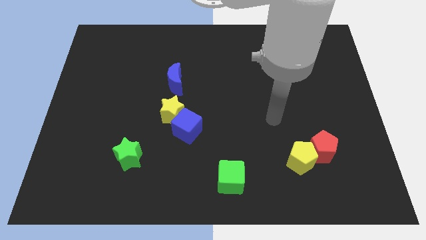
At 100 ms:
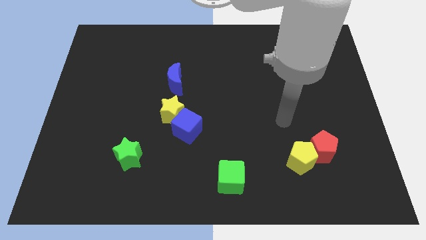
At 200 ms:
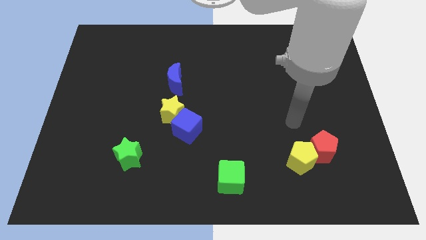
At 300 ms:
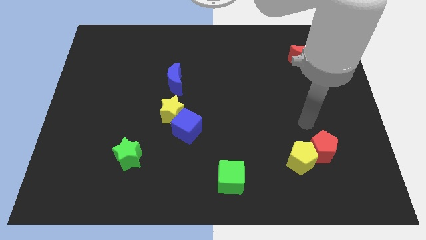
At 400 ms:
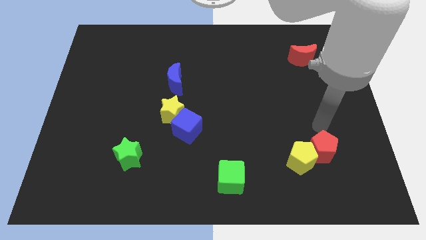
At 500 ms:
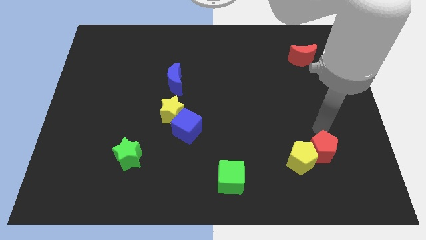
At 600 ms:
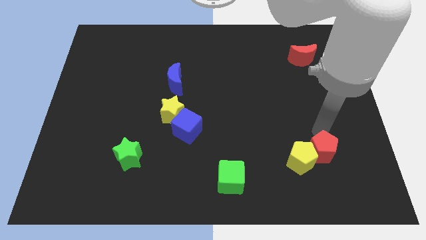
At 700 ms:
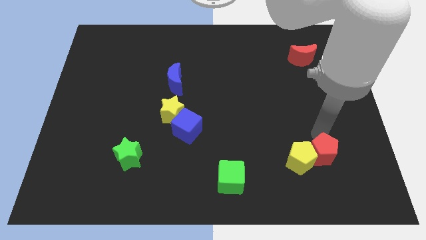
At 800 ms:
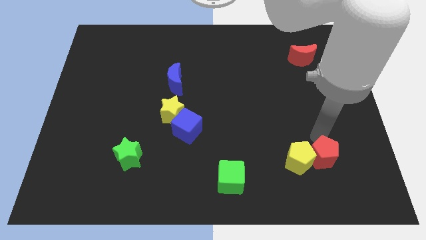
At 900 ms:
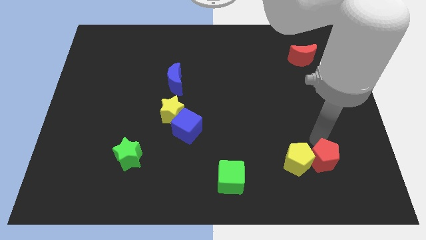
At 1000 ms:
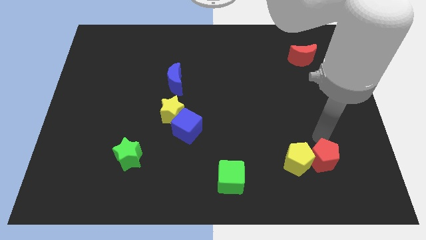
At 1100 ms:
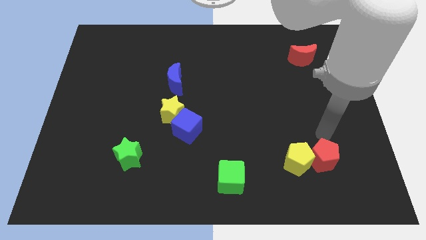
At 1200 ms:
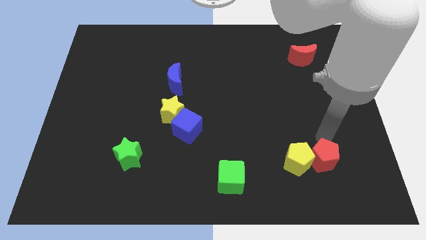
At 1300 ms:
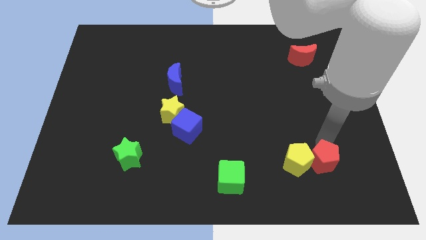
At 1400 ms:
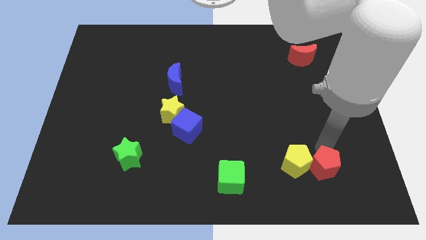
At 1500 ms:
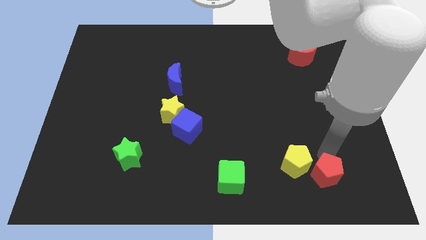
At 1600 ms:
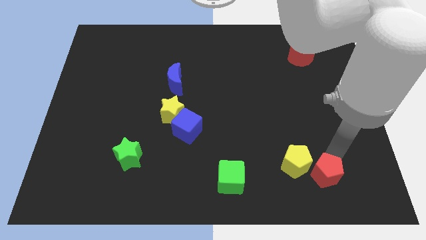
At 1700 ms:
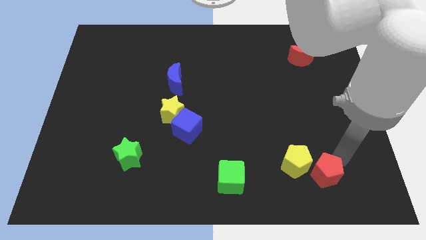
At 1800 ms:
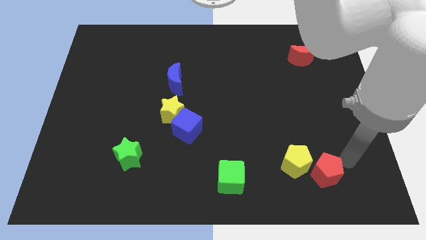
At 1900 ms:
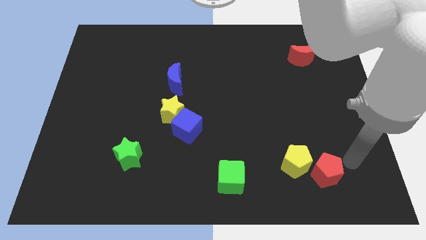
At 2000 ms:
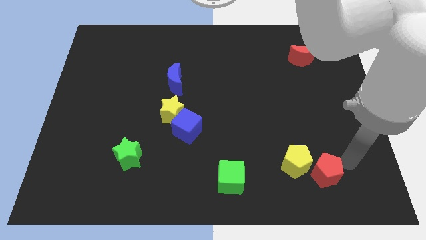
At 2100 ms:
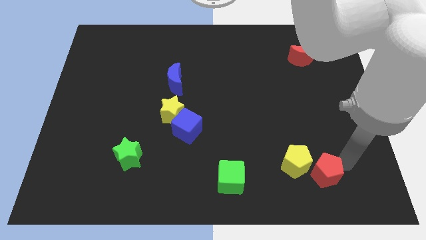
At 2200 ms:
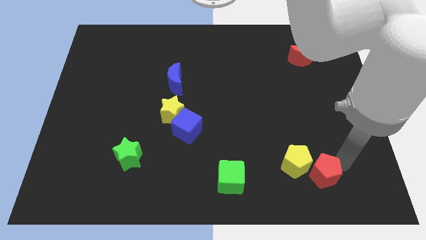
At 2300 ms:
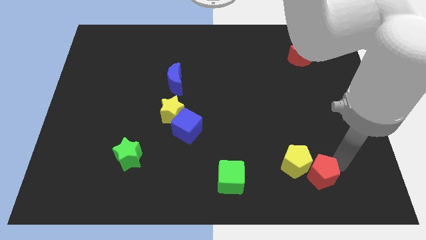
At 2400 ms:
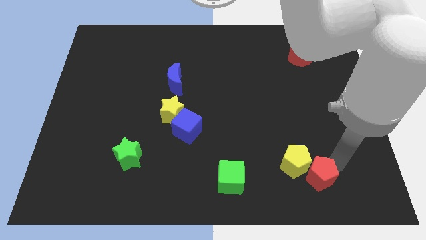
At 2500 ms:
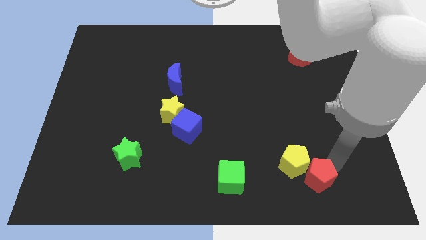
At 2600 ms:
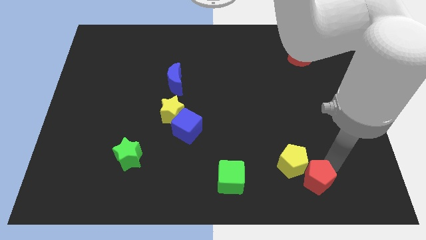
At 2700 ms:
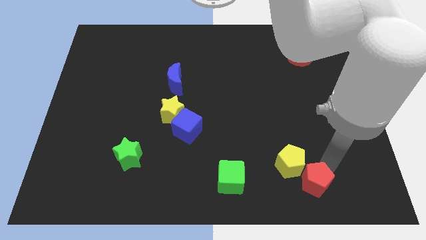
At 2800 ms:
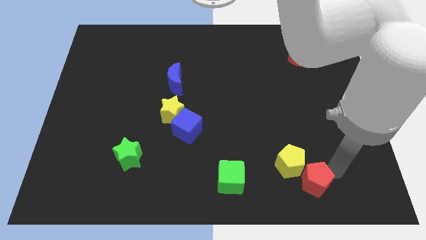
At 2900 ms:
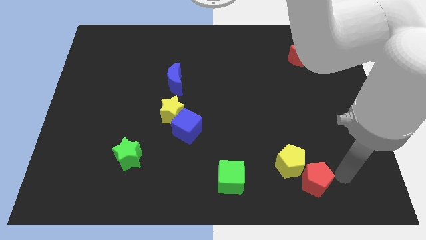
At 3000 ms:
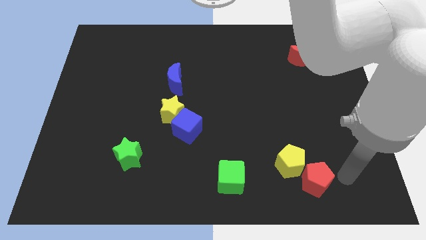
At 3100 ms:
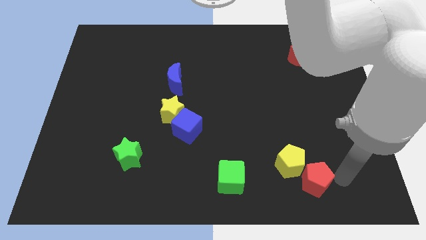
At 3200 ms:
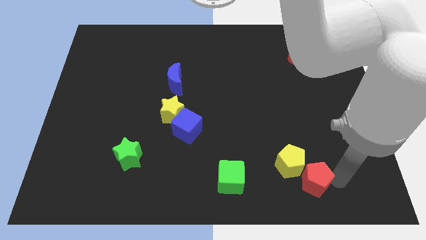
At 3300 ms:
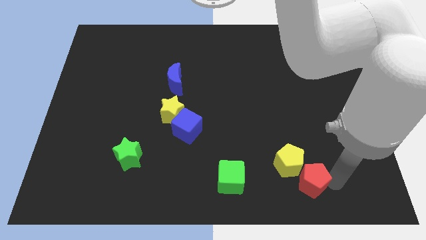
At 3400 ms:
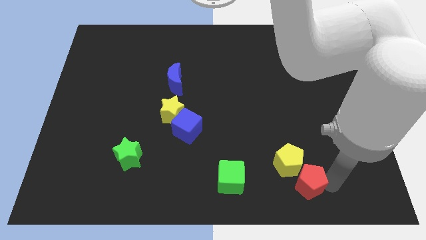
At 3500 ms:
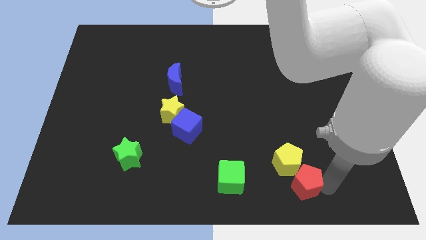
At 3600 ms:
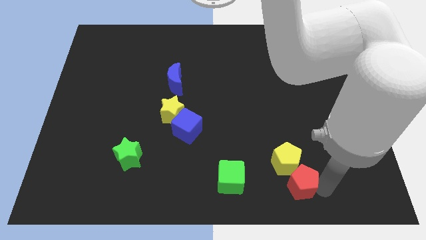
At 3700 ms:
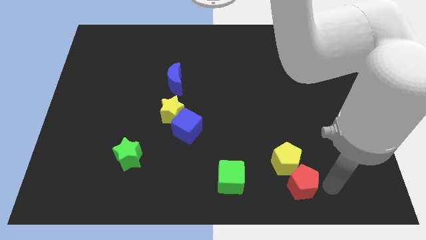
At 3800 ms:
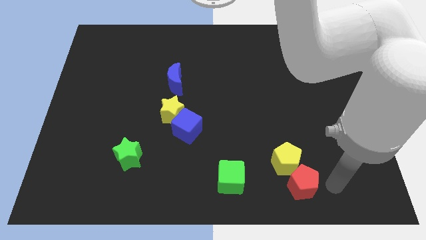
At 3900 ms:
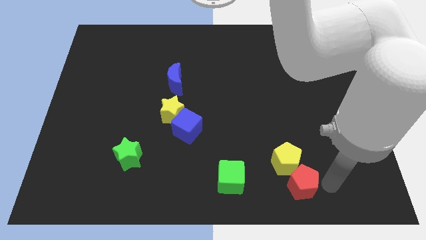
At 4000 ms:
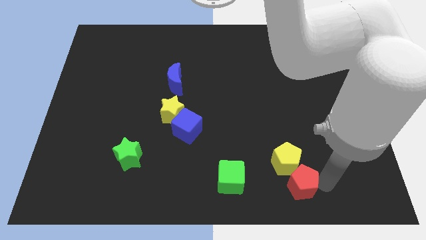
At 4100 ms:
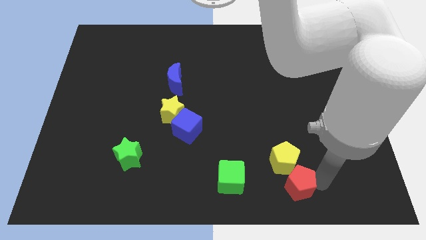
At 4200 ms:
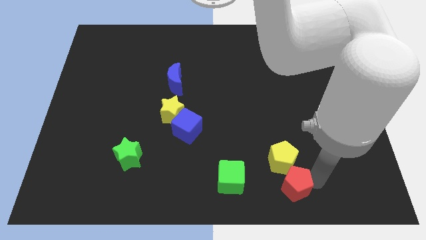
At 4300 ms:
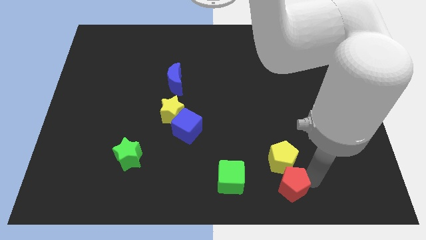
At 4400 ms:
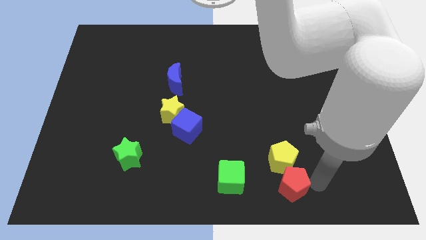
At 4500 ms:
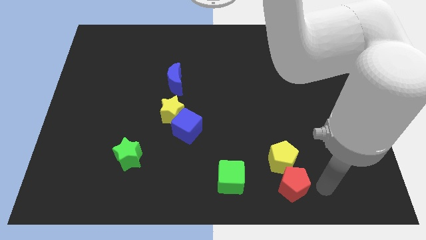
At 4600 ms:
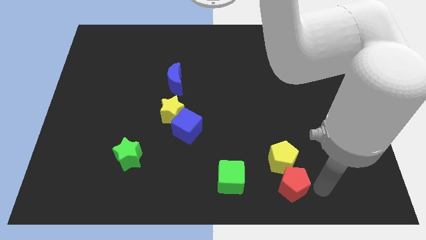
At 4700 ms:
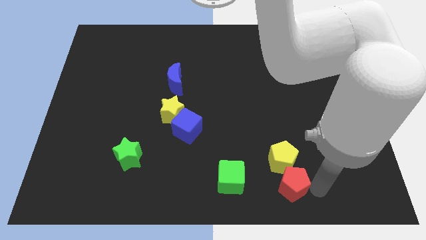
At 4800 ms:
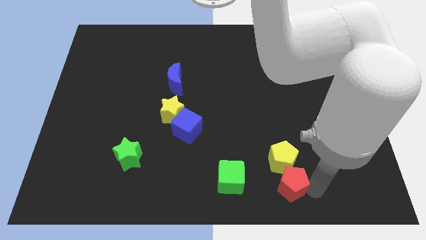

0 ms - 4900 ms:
slide the red pentagon diagonally down and to the left of the yellow pentagon

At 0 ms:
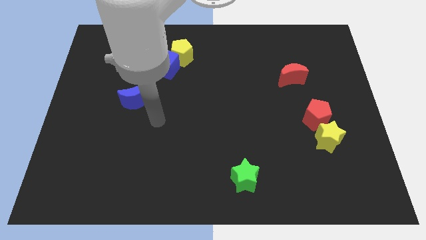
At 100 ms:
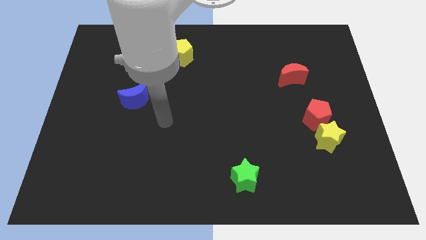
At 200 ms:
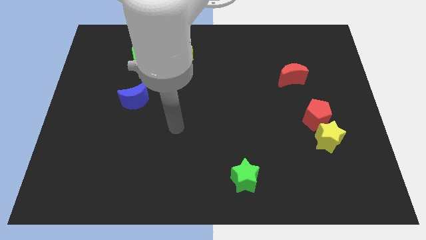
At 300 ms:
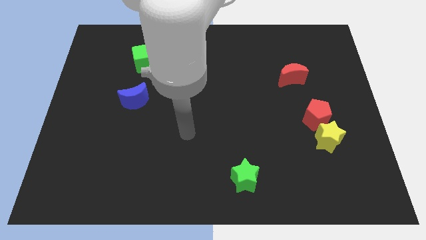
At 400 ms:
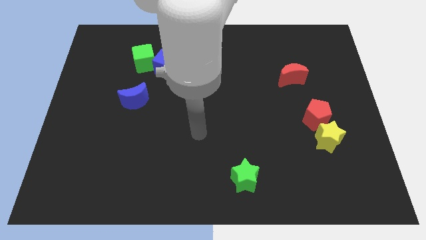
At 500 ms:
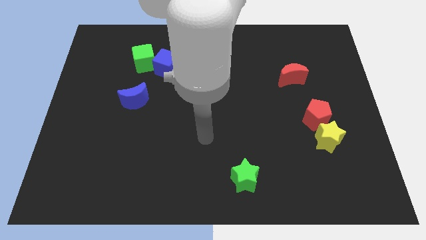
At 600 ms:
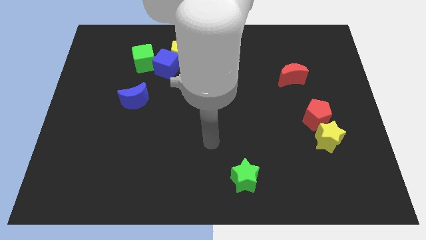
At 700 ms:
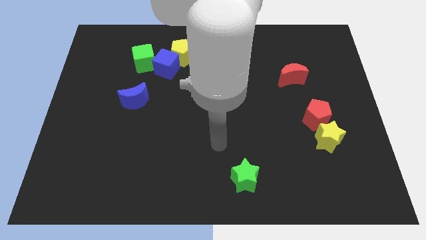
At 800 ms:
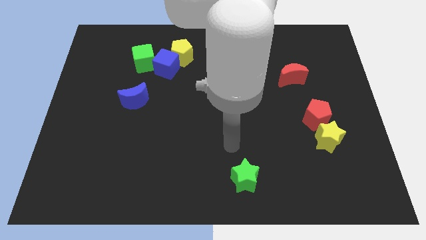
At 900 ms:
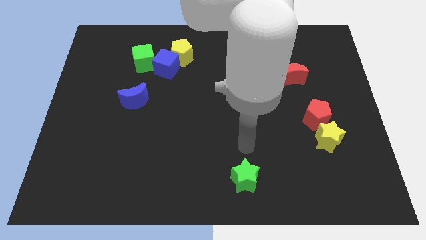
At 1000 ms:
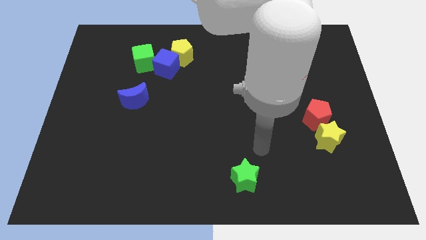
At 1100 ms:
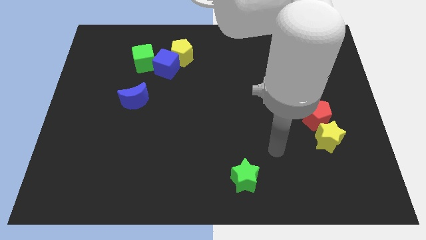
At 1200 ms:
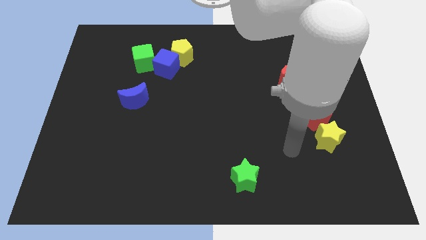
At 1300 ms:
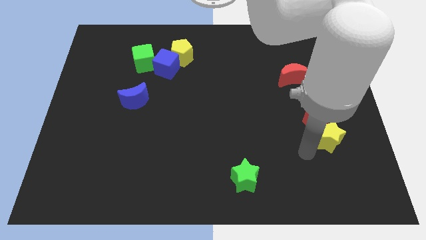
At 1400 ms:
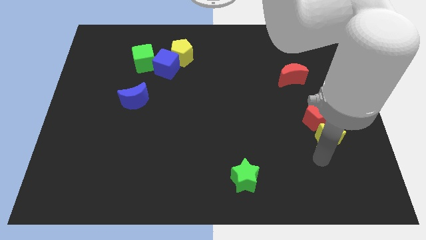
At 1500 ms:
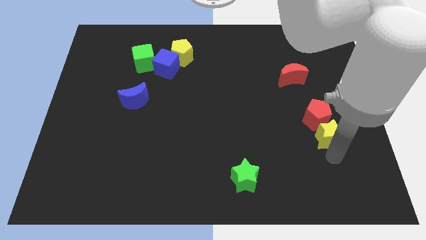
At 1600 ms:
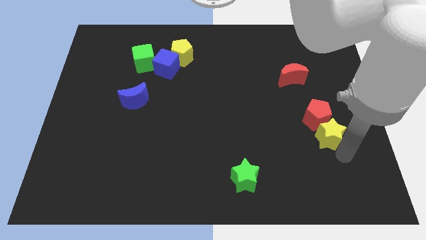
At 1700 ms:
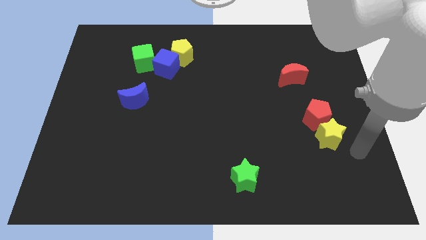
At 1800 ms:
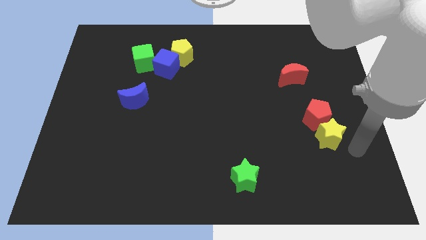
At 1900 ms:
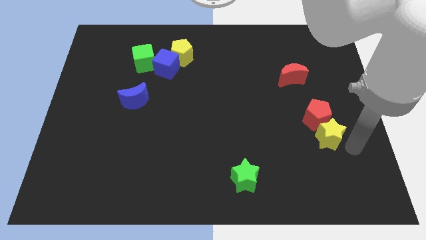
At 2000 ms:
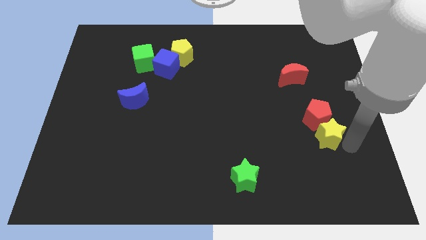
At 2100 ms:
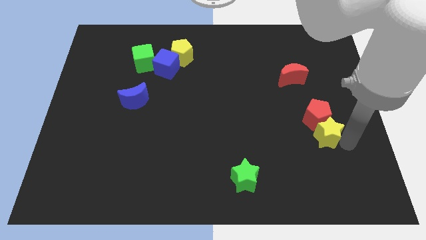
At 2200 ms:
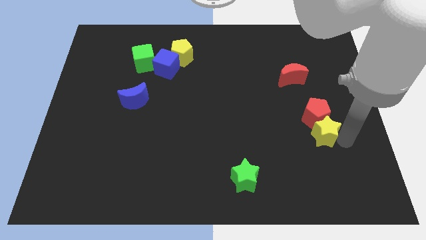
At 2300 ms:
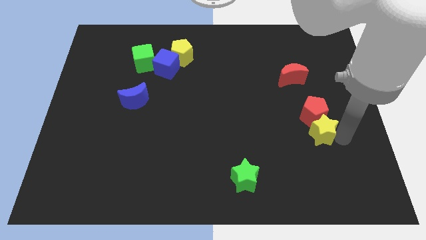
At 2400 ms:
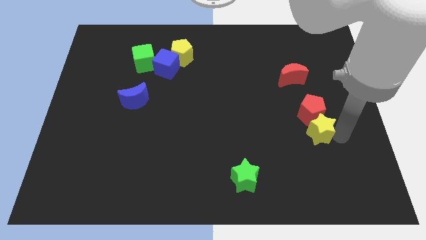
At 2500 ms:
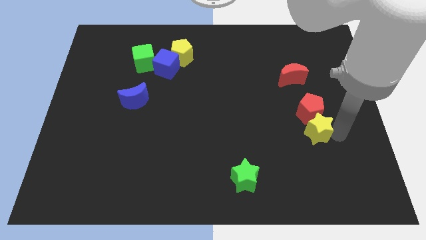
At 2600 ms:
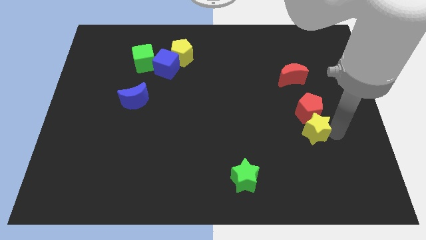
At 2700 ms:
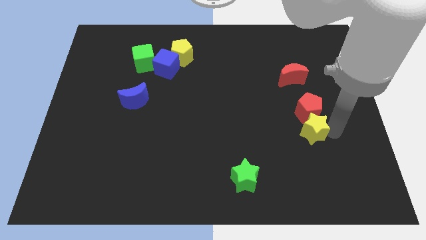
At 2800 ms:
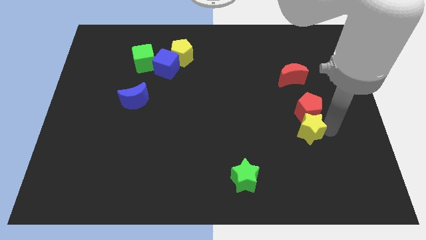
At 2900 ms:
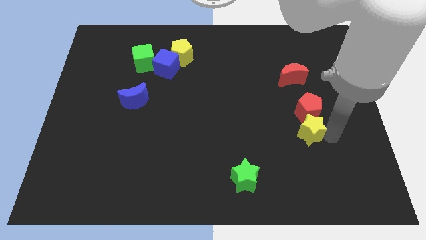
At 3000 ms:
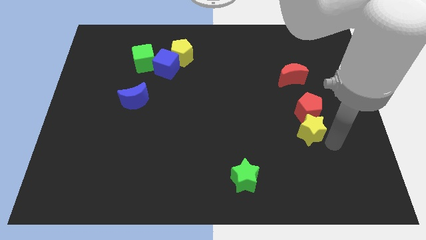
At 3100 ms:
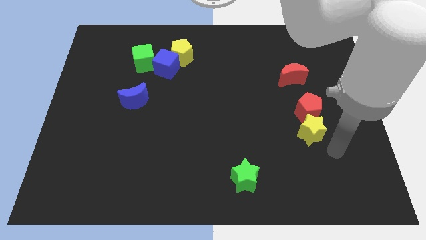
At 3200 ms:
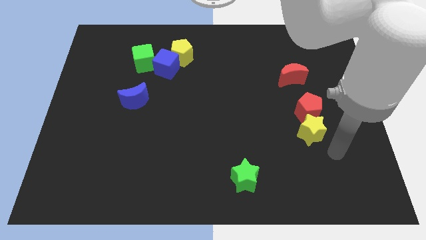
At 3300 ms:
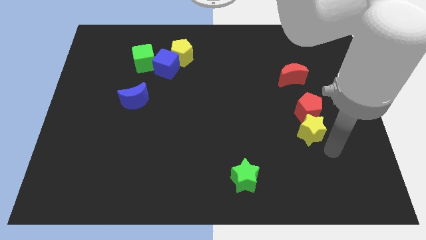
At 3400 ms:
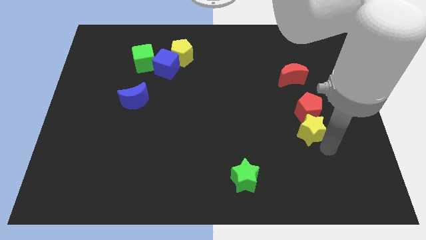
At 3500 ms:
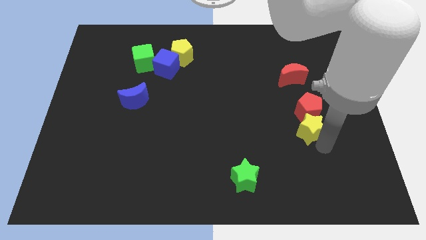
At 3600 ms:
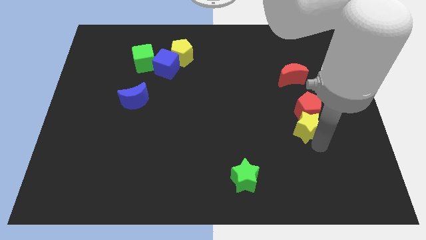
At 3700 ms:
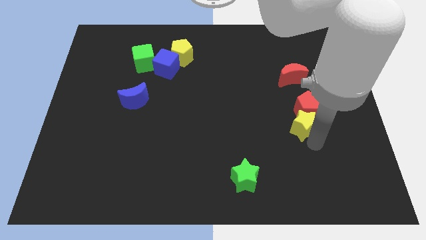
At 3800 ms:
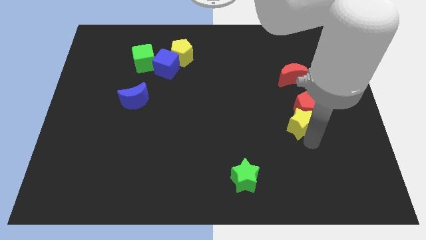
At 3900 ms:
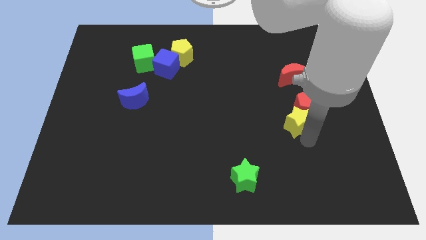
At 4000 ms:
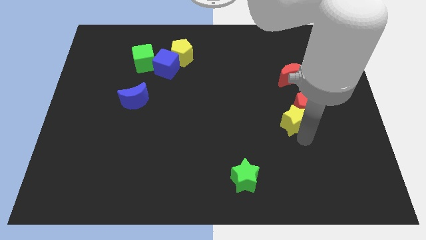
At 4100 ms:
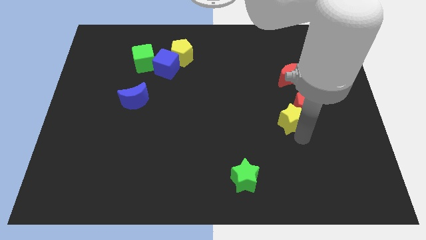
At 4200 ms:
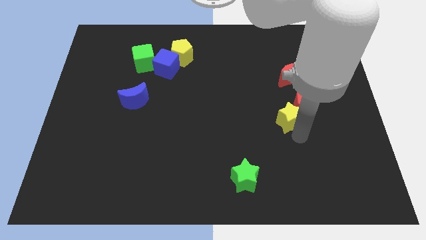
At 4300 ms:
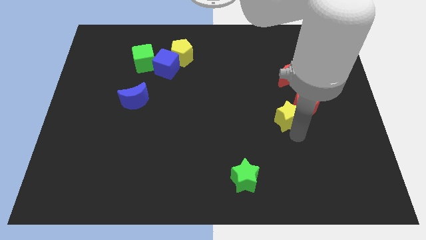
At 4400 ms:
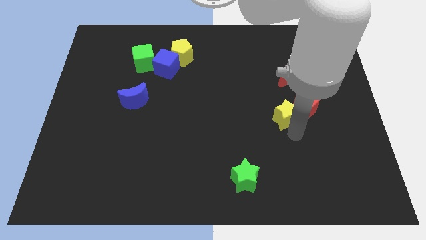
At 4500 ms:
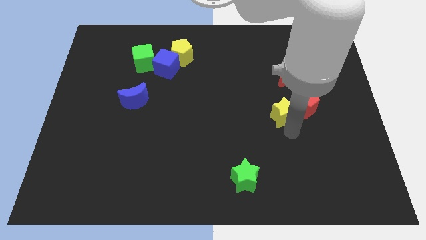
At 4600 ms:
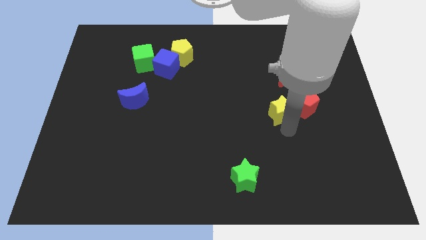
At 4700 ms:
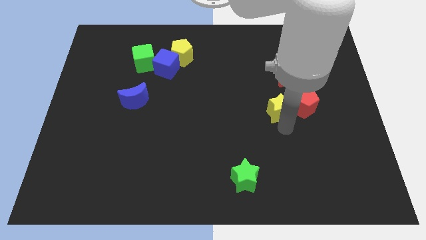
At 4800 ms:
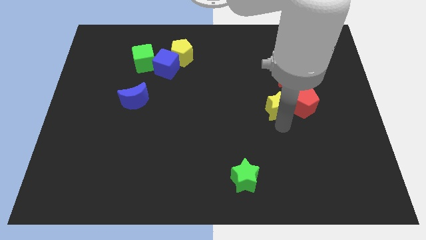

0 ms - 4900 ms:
slide the yellow star diagonally down and to the left of the red moon
